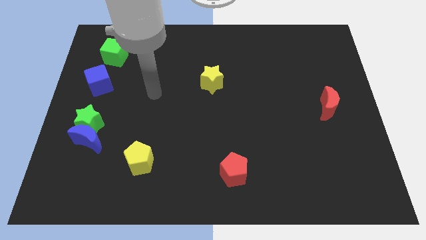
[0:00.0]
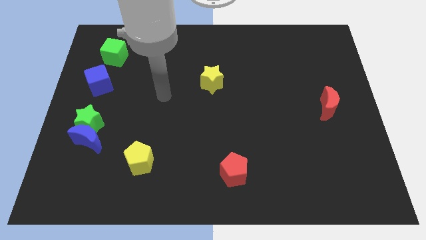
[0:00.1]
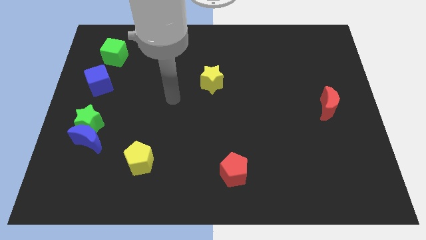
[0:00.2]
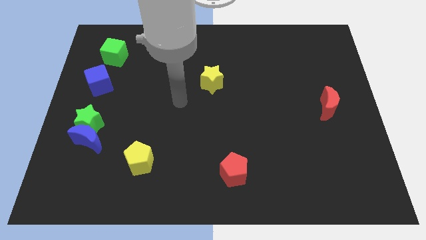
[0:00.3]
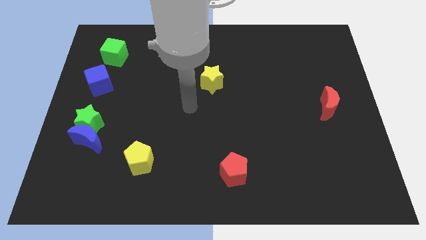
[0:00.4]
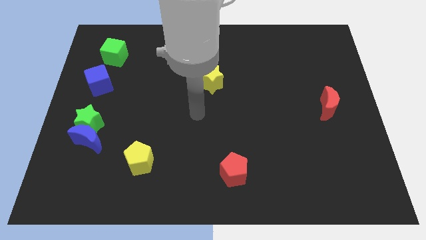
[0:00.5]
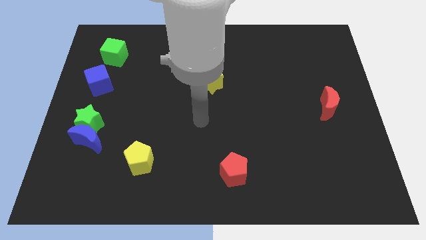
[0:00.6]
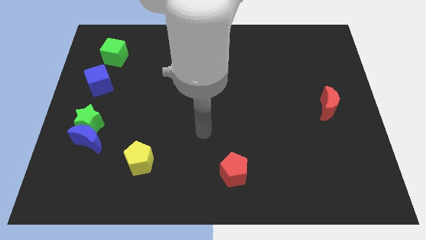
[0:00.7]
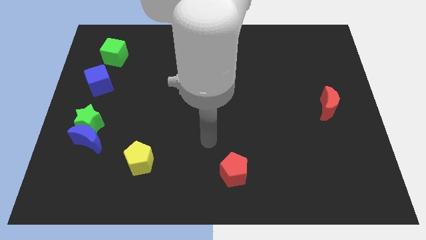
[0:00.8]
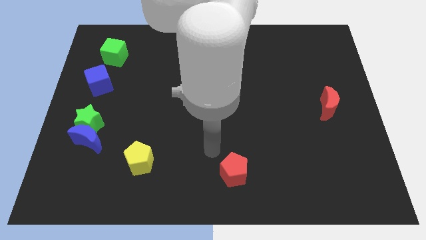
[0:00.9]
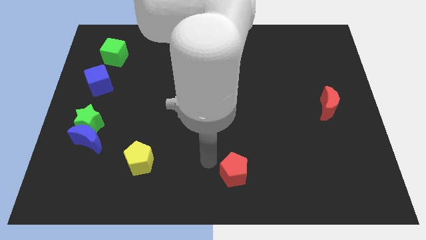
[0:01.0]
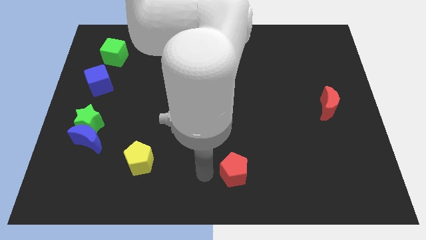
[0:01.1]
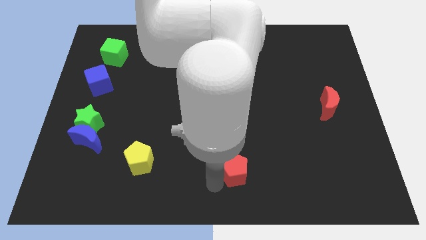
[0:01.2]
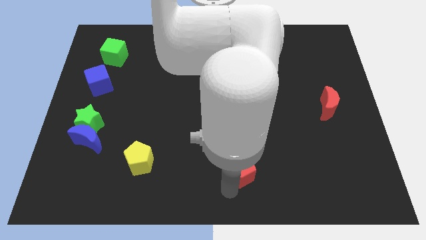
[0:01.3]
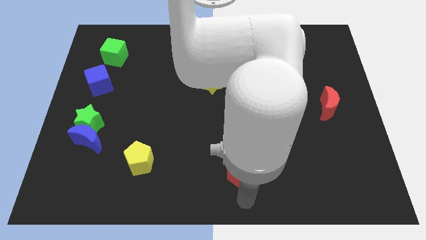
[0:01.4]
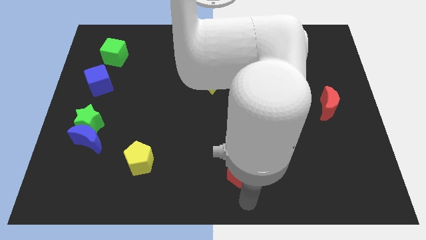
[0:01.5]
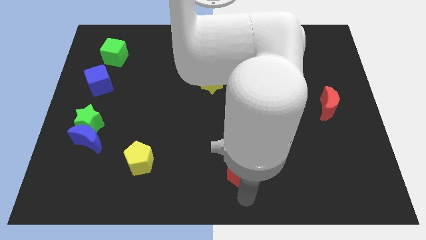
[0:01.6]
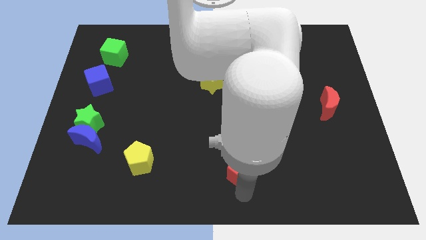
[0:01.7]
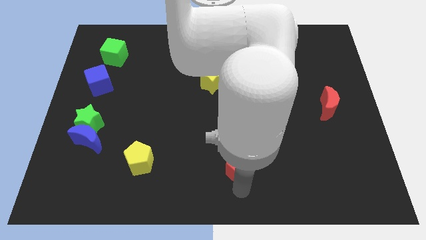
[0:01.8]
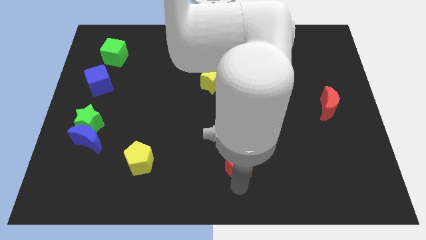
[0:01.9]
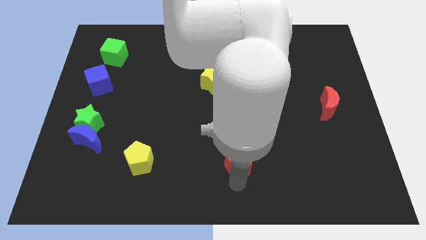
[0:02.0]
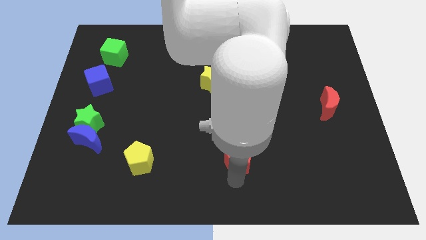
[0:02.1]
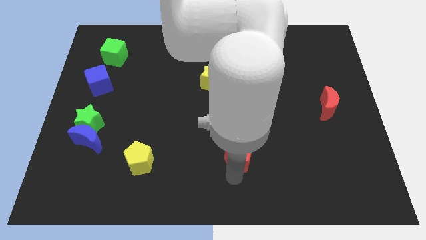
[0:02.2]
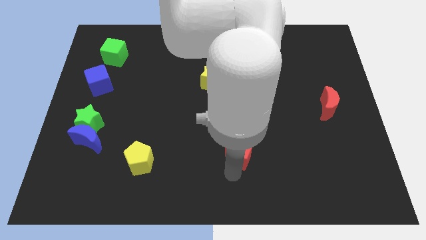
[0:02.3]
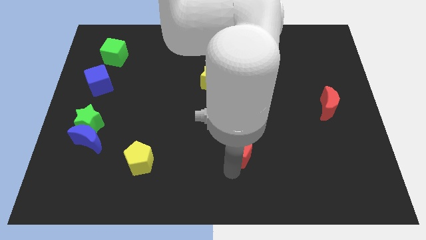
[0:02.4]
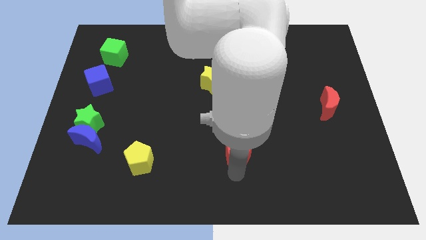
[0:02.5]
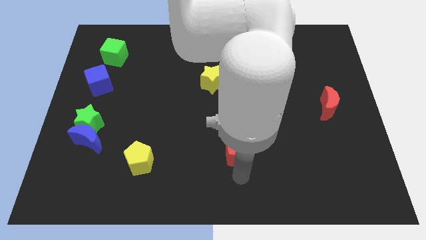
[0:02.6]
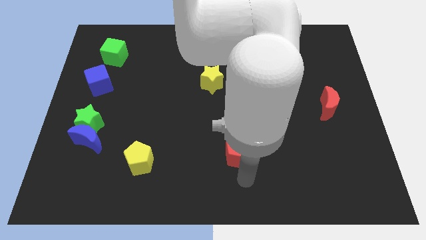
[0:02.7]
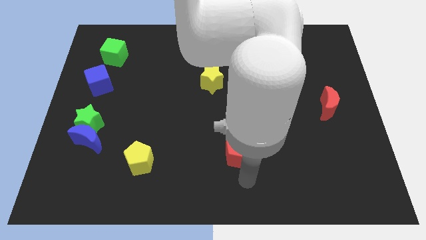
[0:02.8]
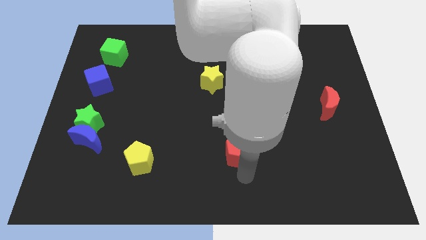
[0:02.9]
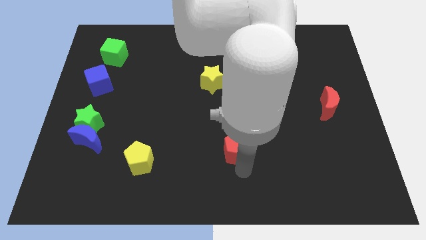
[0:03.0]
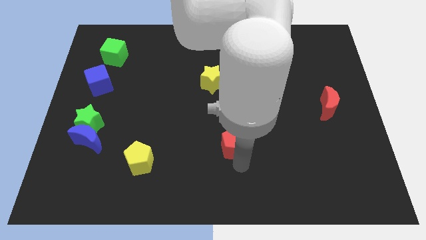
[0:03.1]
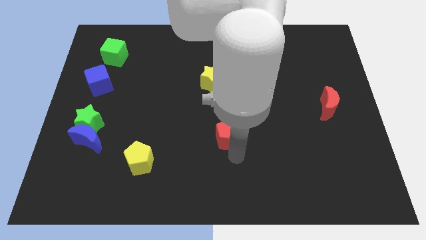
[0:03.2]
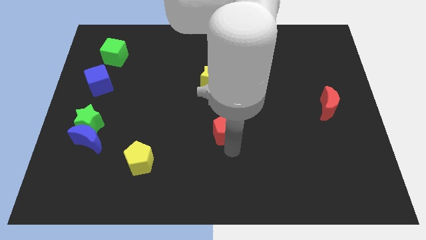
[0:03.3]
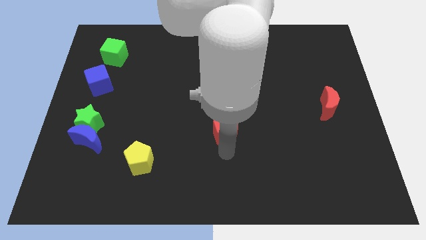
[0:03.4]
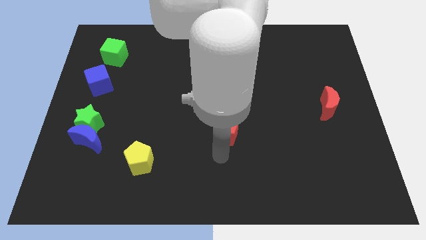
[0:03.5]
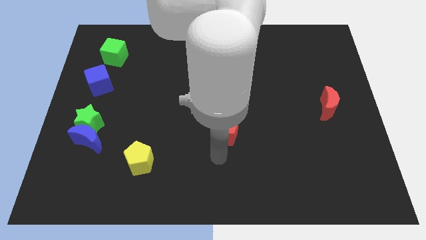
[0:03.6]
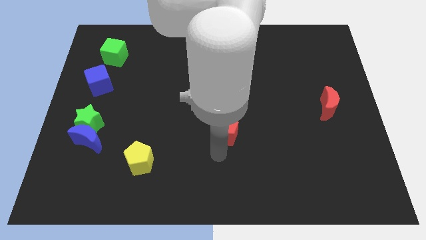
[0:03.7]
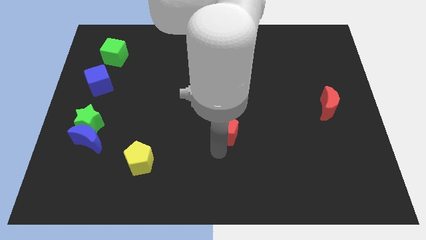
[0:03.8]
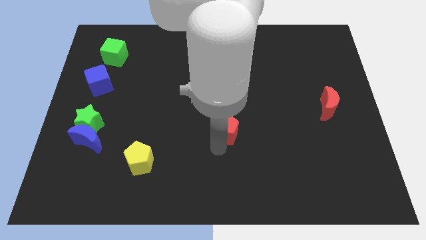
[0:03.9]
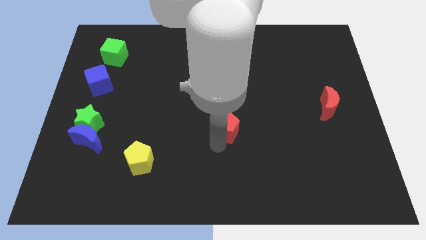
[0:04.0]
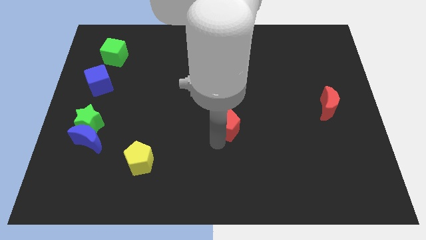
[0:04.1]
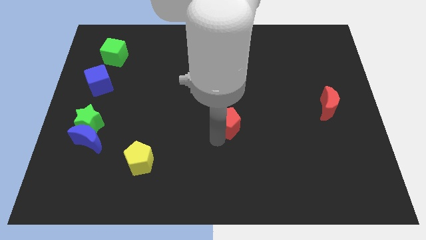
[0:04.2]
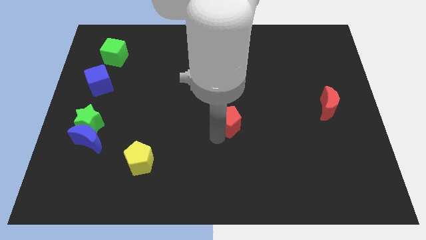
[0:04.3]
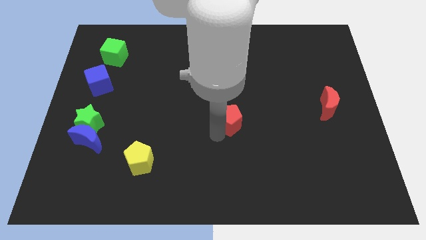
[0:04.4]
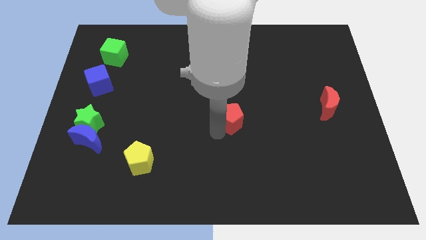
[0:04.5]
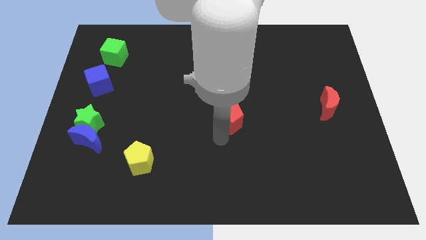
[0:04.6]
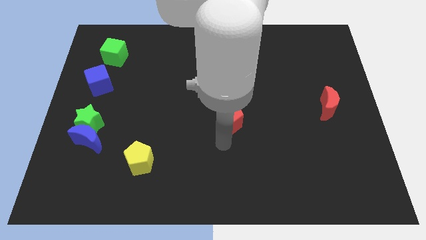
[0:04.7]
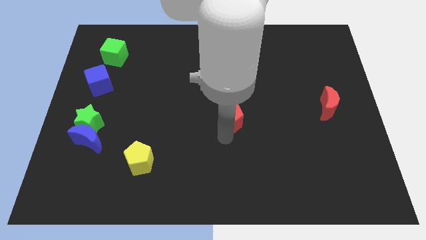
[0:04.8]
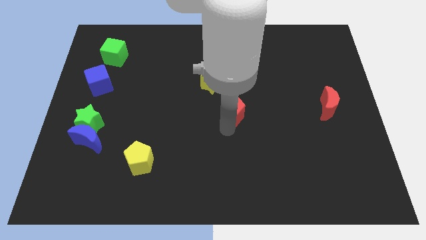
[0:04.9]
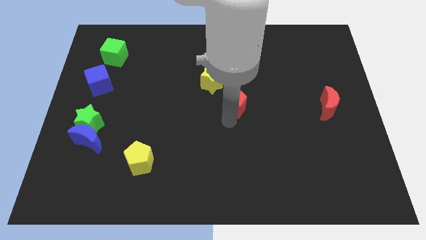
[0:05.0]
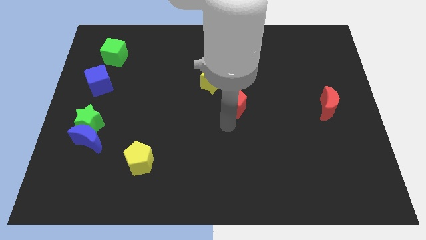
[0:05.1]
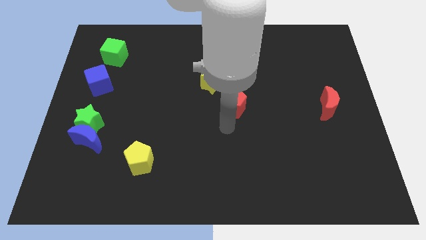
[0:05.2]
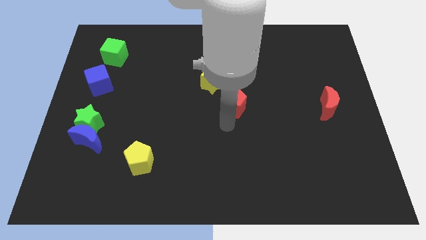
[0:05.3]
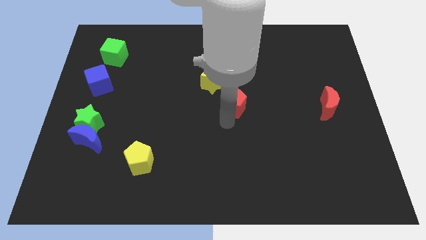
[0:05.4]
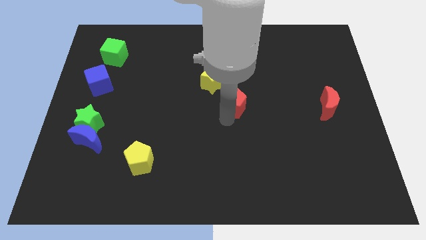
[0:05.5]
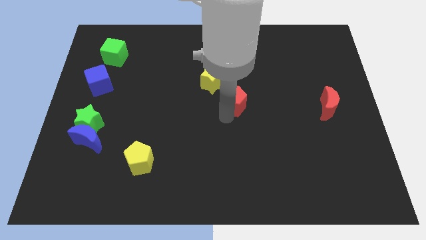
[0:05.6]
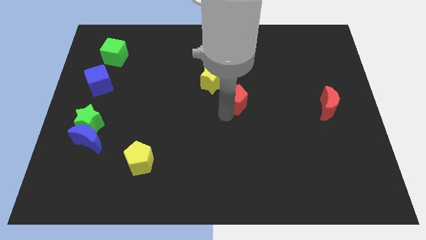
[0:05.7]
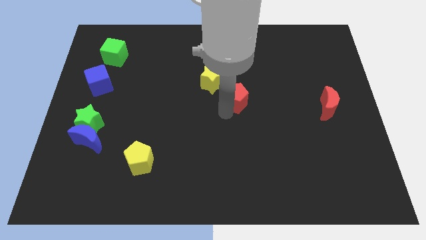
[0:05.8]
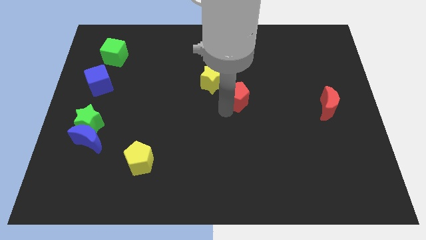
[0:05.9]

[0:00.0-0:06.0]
move the red pentagon upwards

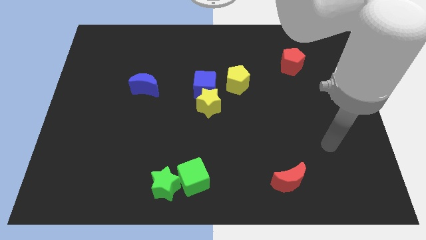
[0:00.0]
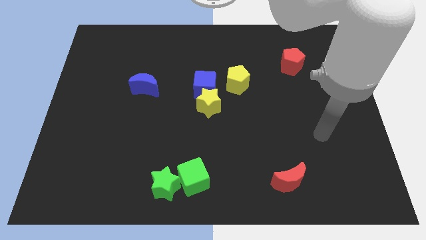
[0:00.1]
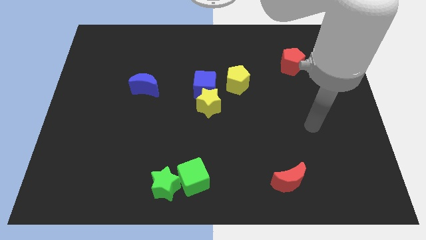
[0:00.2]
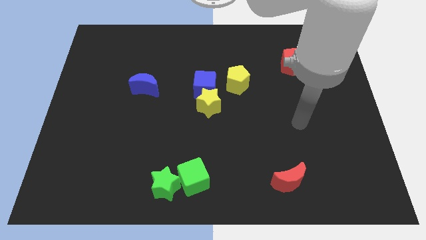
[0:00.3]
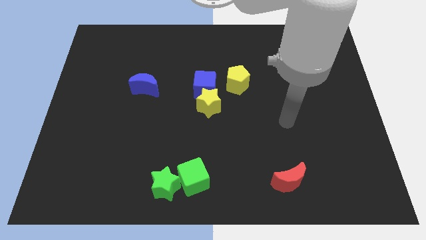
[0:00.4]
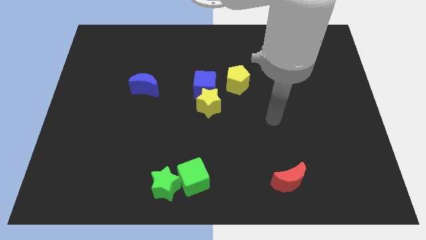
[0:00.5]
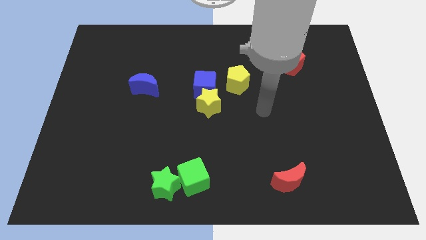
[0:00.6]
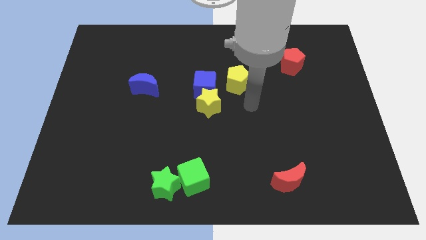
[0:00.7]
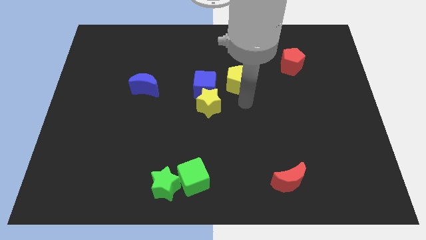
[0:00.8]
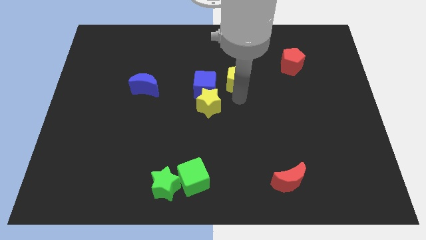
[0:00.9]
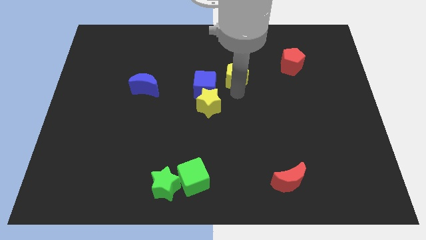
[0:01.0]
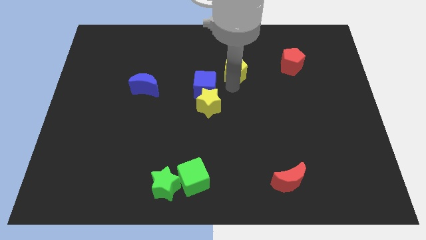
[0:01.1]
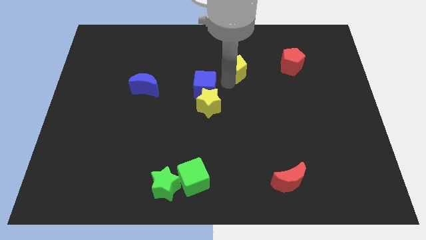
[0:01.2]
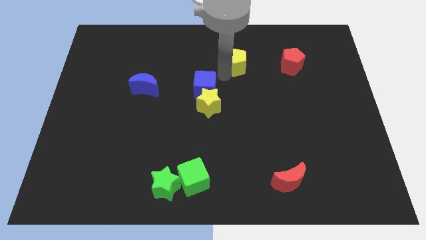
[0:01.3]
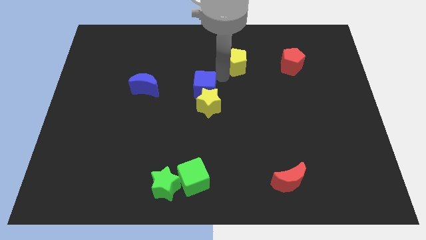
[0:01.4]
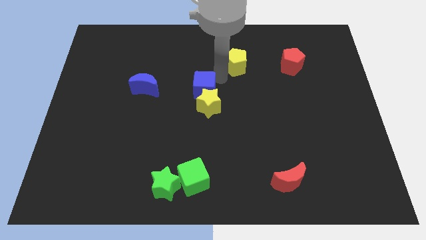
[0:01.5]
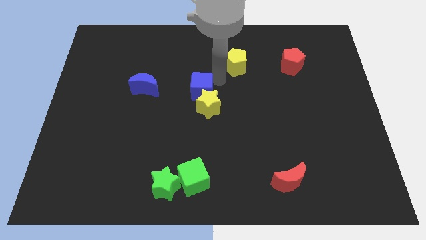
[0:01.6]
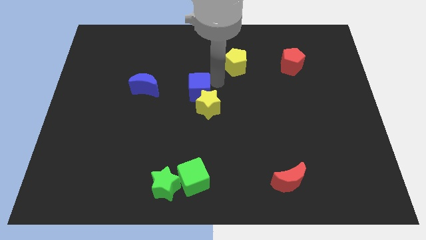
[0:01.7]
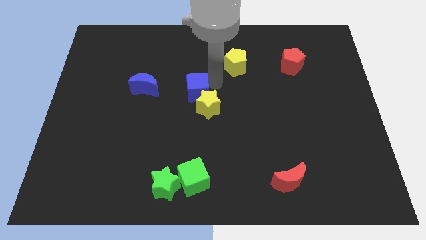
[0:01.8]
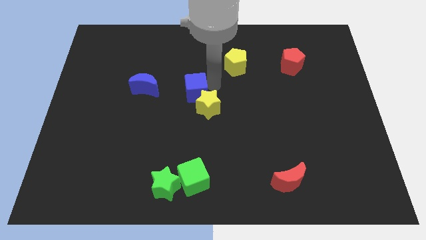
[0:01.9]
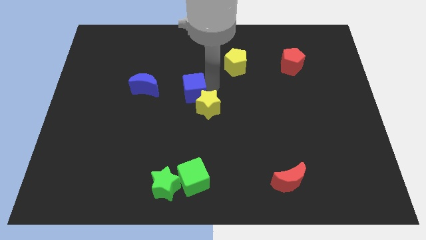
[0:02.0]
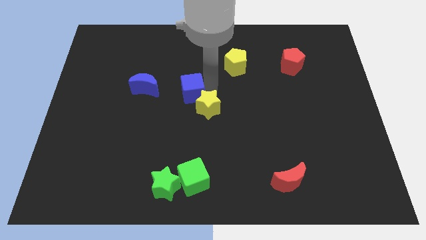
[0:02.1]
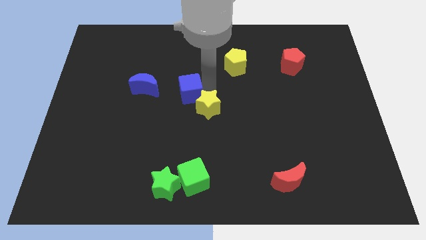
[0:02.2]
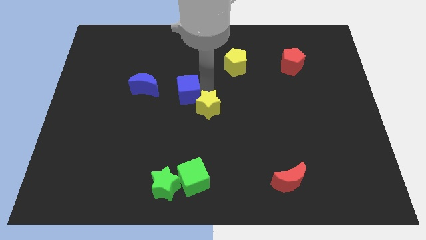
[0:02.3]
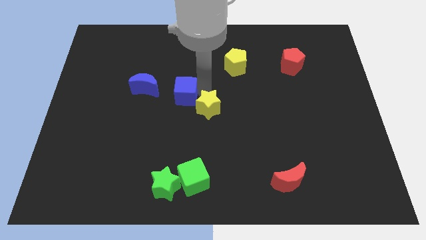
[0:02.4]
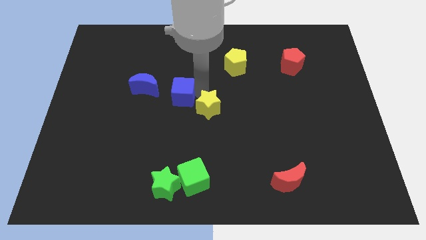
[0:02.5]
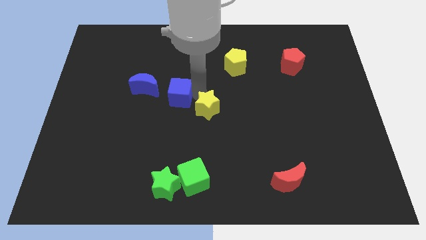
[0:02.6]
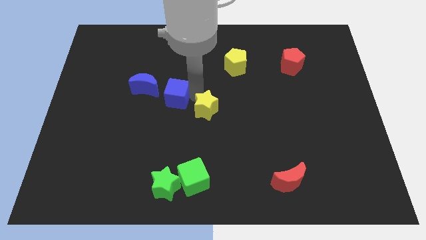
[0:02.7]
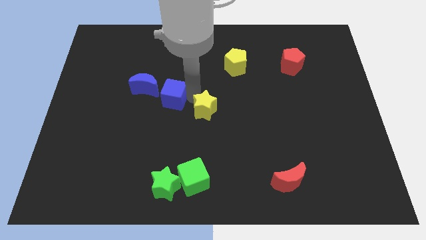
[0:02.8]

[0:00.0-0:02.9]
push the blue cube downwards and left diagonally slightly
